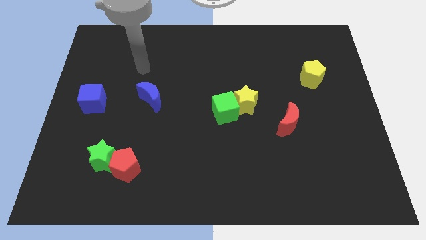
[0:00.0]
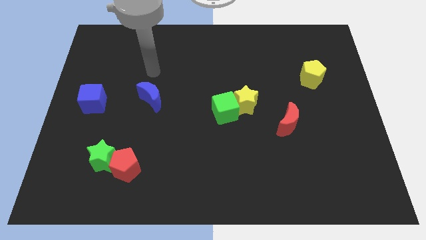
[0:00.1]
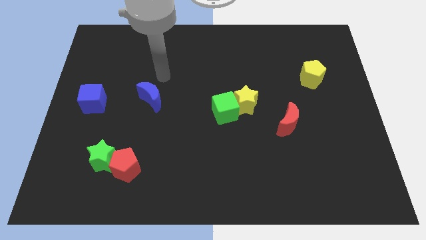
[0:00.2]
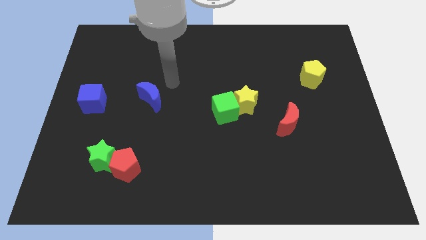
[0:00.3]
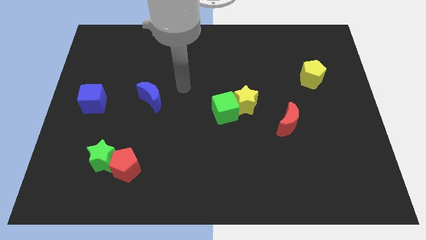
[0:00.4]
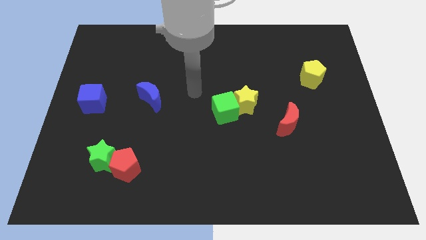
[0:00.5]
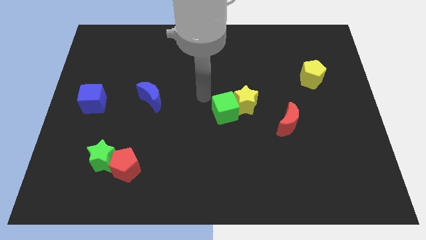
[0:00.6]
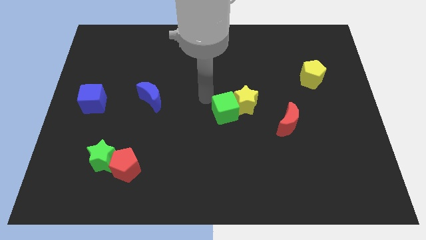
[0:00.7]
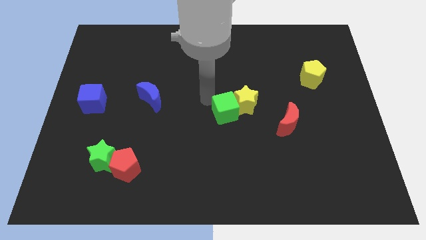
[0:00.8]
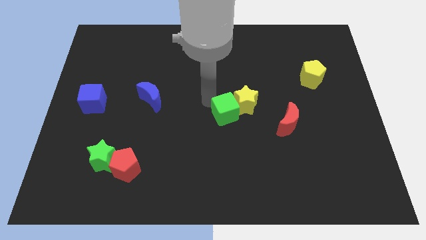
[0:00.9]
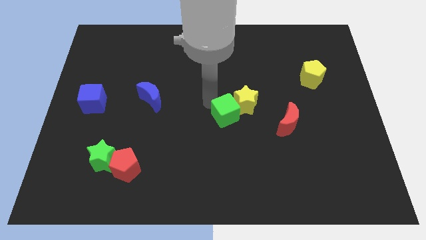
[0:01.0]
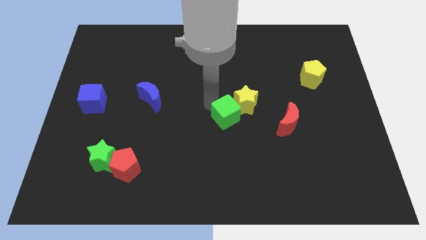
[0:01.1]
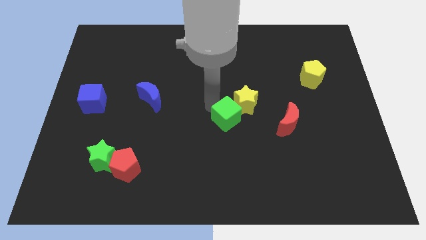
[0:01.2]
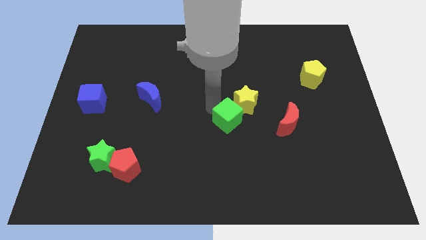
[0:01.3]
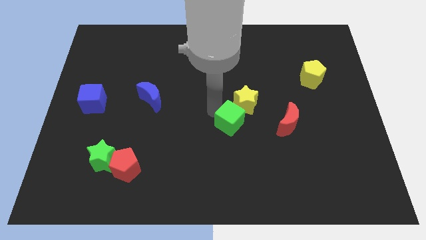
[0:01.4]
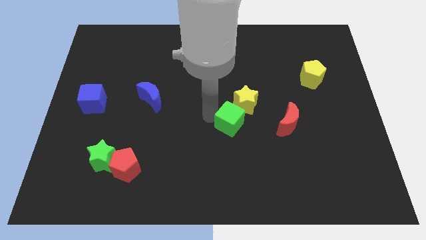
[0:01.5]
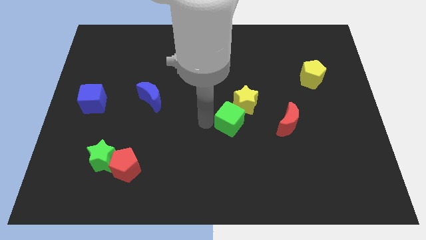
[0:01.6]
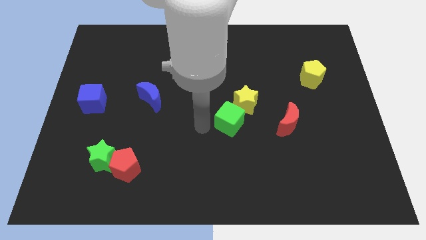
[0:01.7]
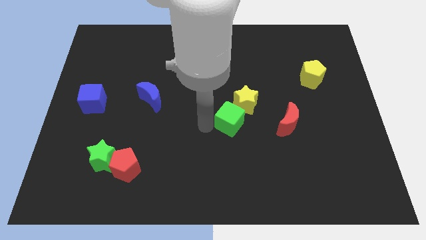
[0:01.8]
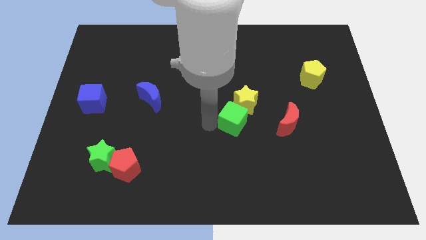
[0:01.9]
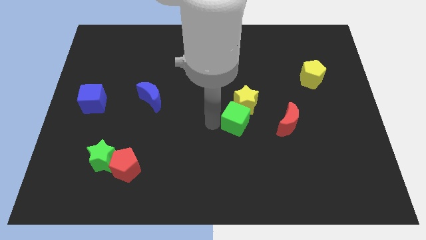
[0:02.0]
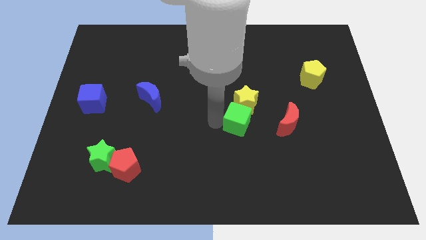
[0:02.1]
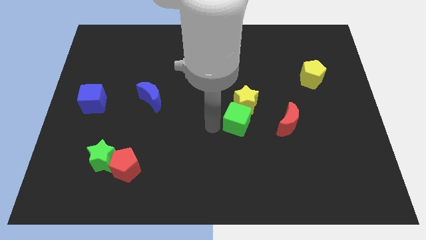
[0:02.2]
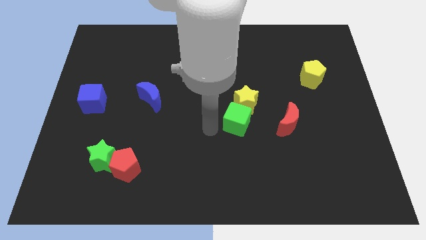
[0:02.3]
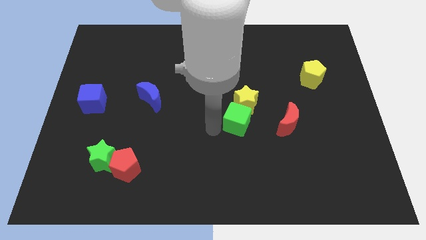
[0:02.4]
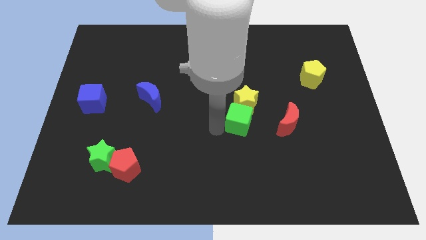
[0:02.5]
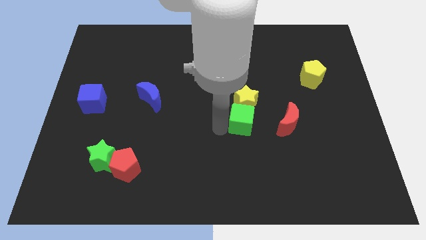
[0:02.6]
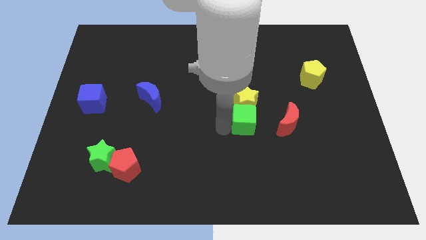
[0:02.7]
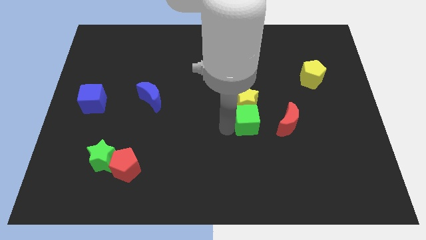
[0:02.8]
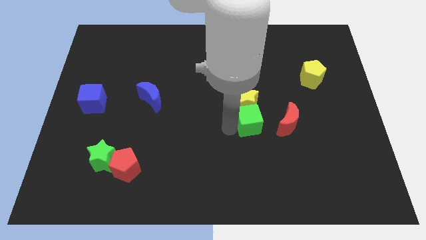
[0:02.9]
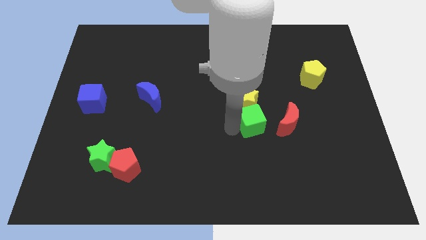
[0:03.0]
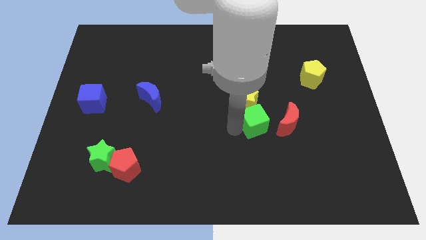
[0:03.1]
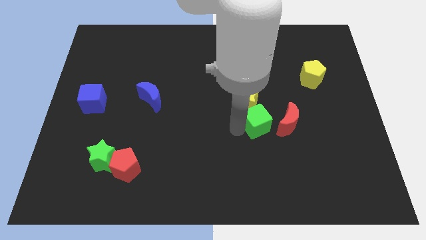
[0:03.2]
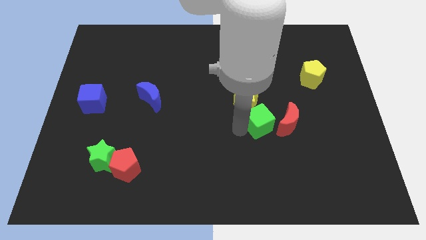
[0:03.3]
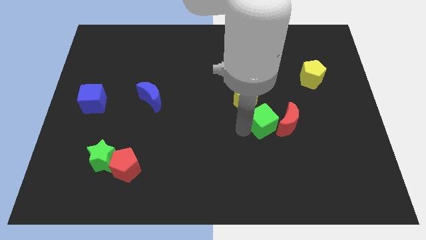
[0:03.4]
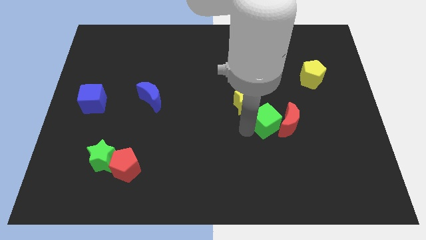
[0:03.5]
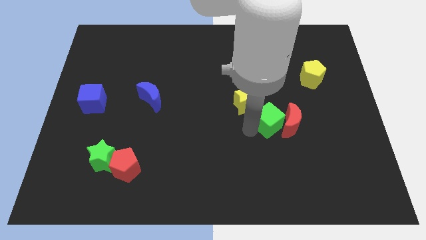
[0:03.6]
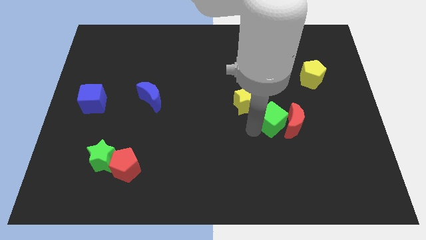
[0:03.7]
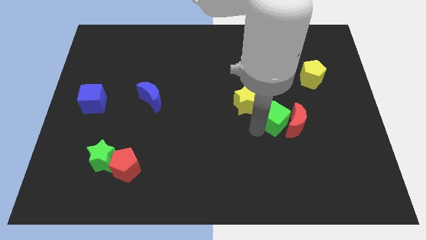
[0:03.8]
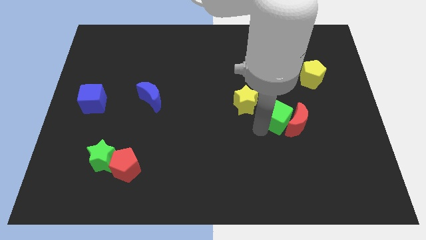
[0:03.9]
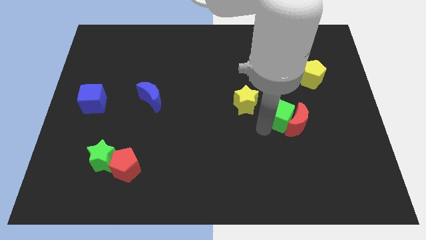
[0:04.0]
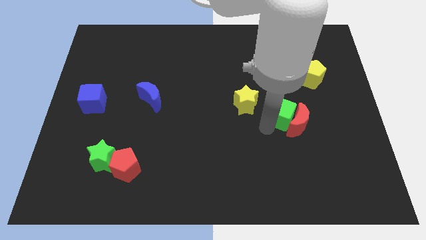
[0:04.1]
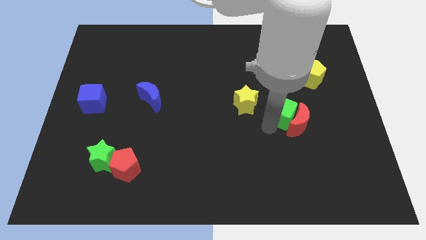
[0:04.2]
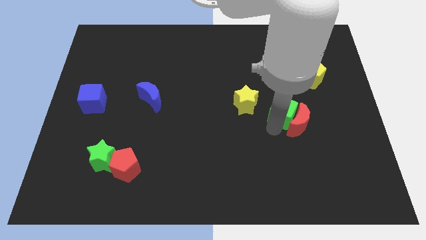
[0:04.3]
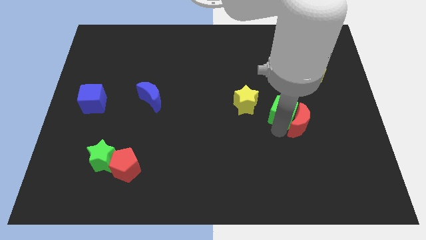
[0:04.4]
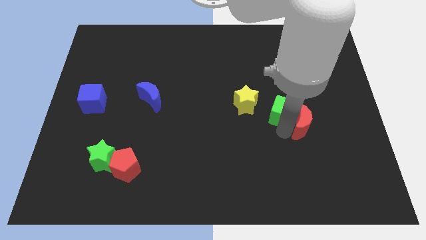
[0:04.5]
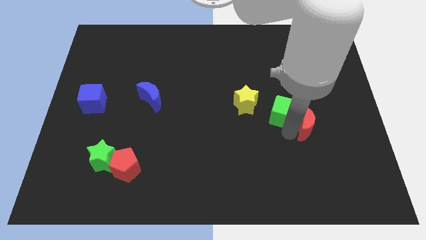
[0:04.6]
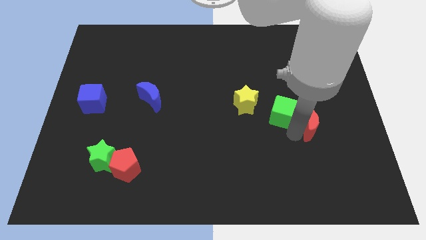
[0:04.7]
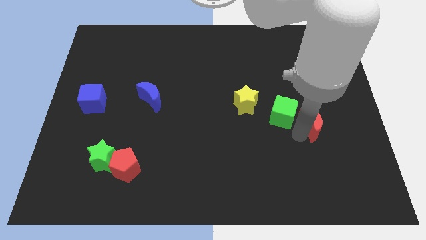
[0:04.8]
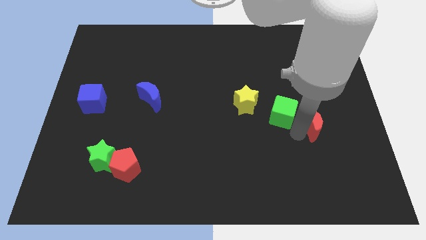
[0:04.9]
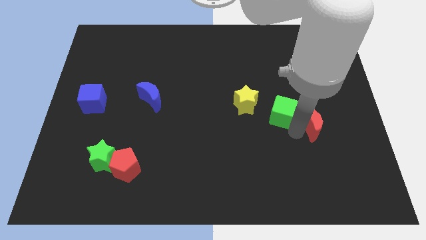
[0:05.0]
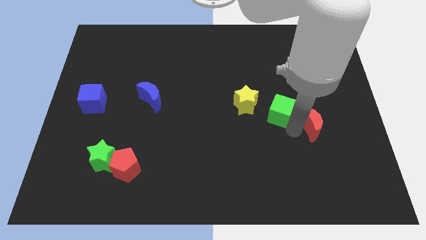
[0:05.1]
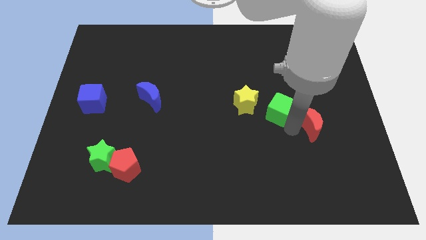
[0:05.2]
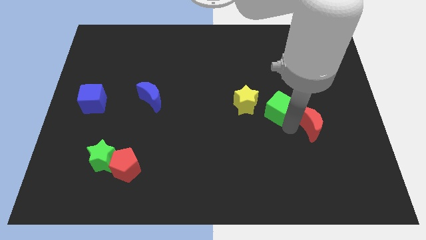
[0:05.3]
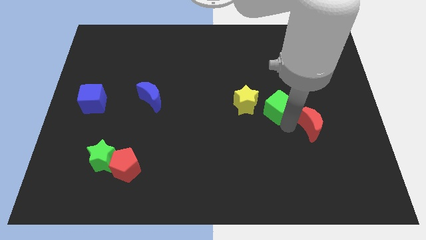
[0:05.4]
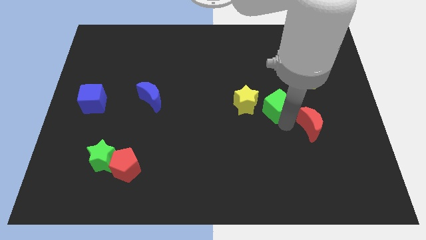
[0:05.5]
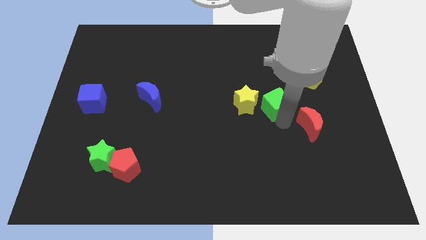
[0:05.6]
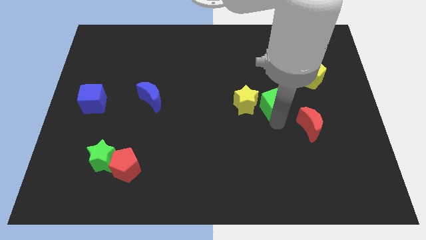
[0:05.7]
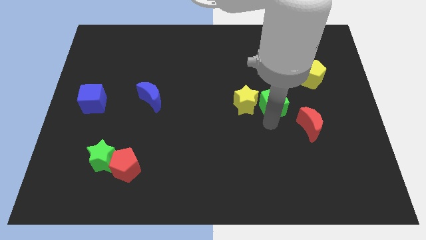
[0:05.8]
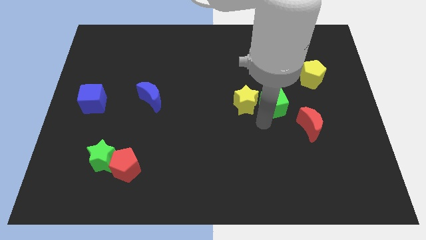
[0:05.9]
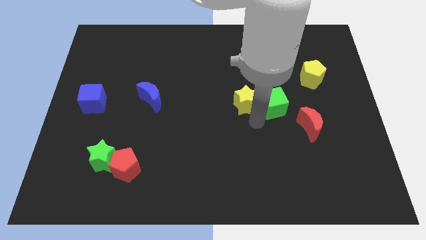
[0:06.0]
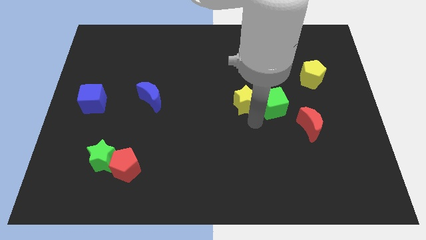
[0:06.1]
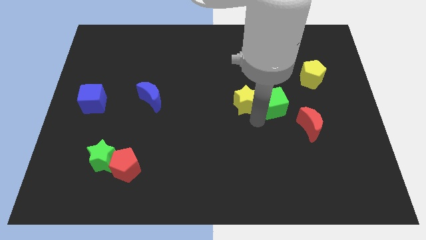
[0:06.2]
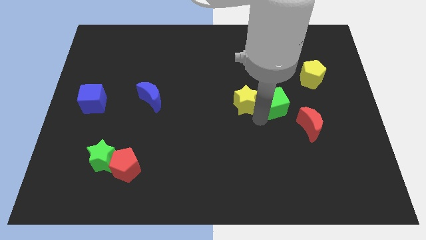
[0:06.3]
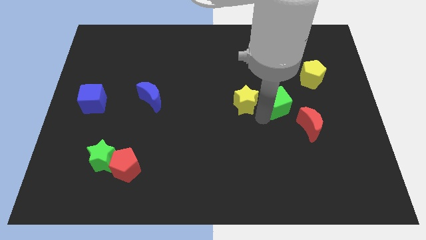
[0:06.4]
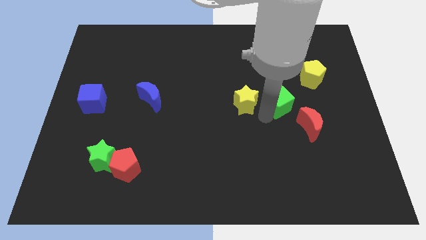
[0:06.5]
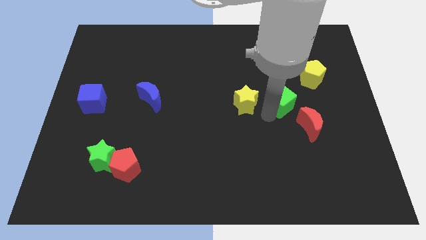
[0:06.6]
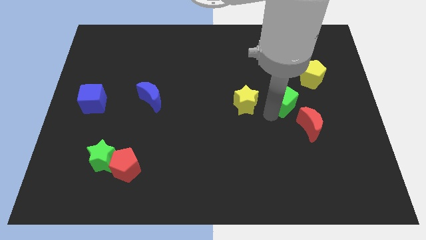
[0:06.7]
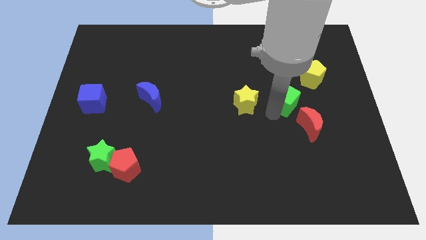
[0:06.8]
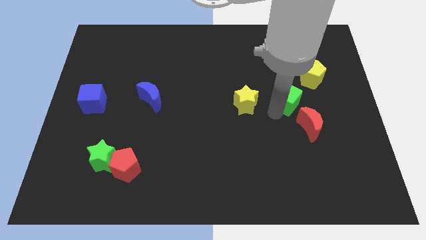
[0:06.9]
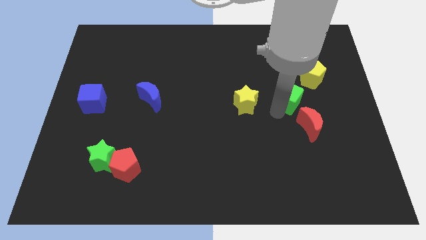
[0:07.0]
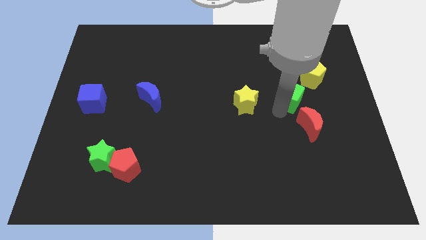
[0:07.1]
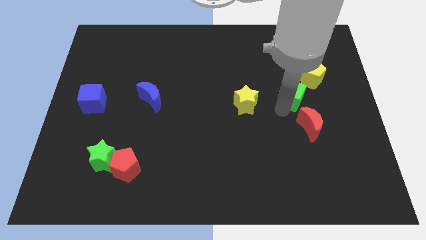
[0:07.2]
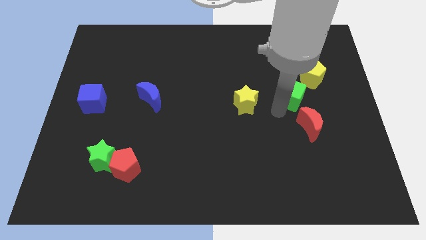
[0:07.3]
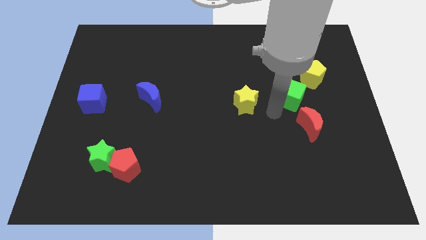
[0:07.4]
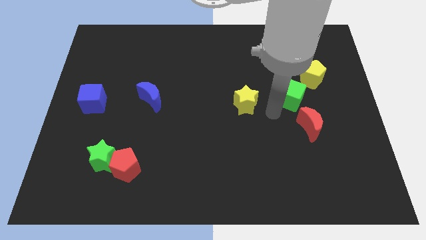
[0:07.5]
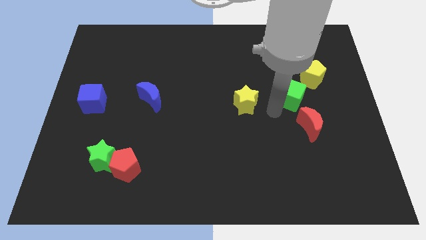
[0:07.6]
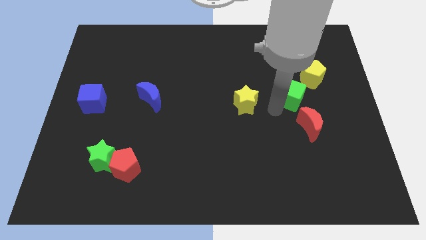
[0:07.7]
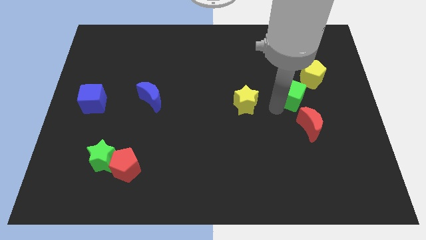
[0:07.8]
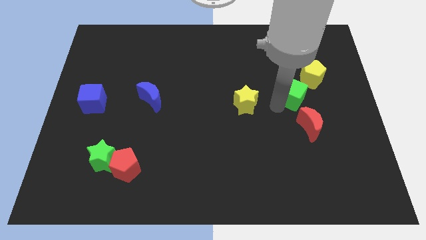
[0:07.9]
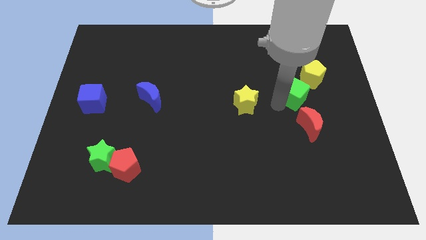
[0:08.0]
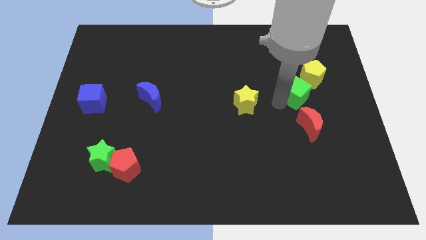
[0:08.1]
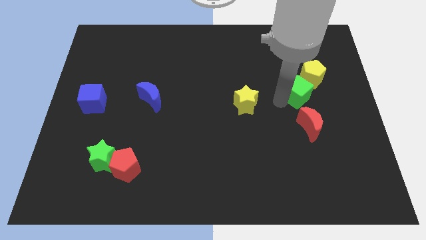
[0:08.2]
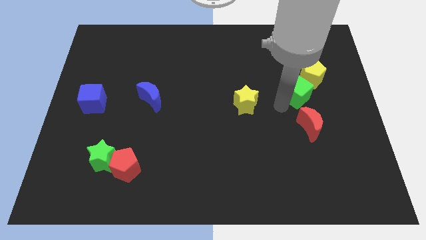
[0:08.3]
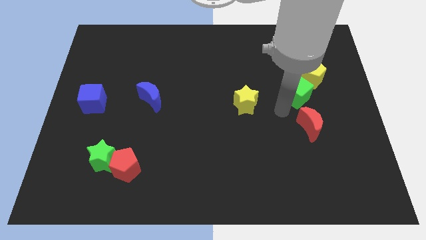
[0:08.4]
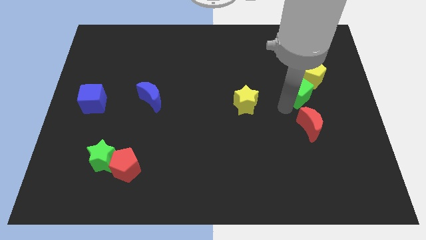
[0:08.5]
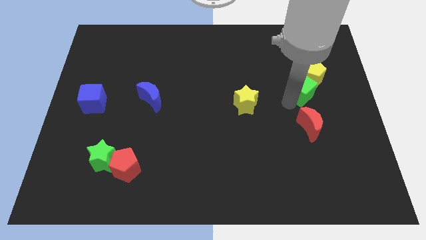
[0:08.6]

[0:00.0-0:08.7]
put the green cube close to the yellow pentagon
